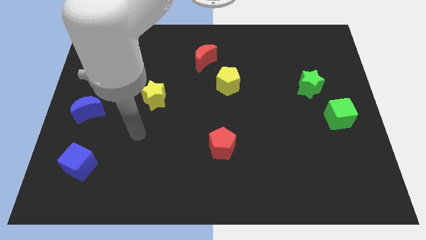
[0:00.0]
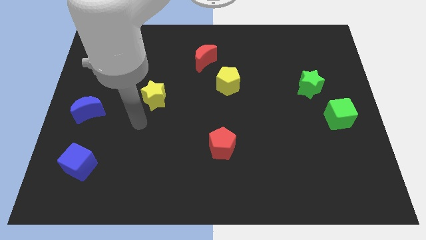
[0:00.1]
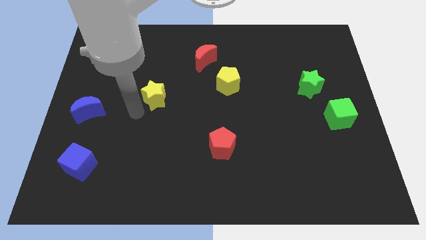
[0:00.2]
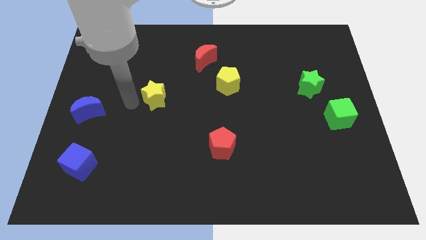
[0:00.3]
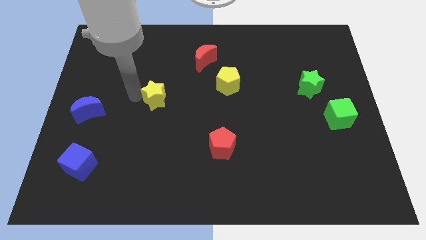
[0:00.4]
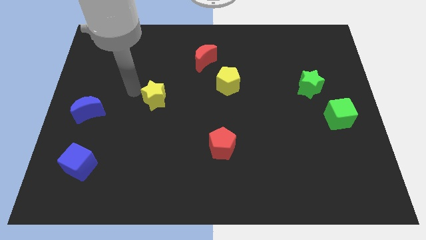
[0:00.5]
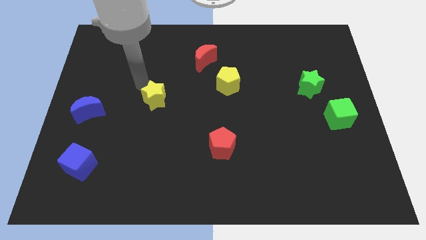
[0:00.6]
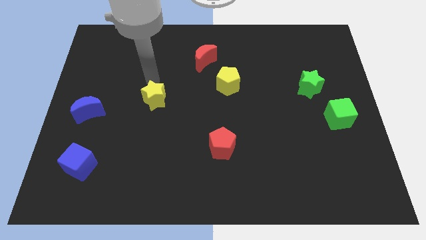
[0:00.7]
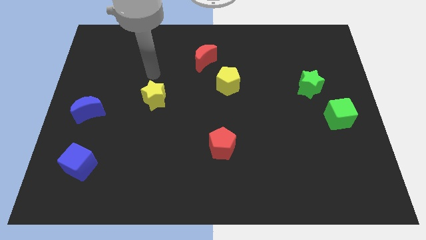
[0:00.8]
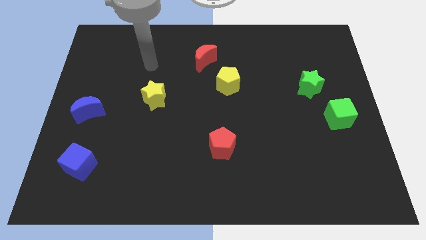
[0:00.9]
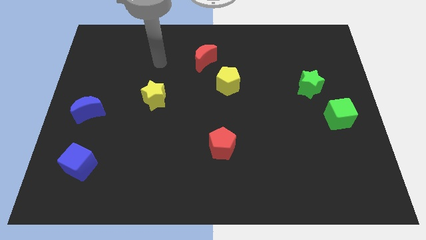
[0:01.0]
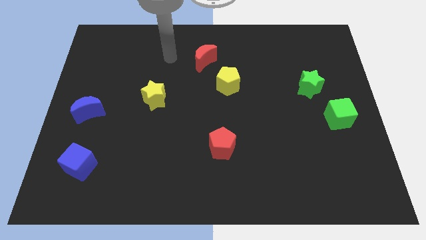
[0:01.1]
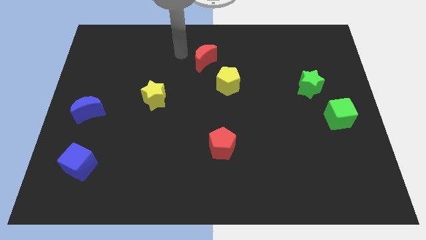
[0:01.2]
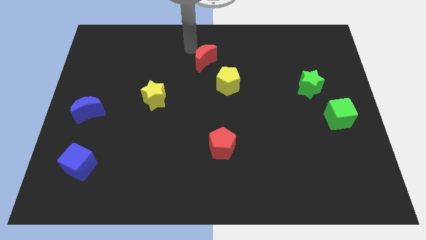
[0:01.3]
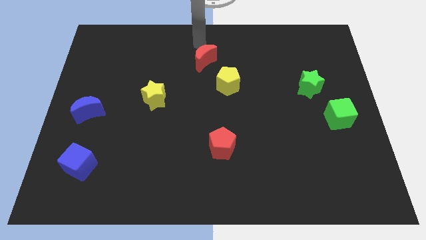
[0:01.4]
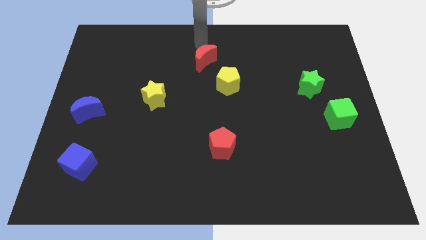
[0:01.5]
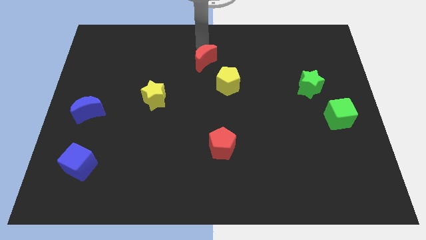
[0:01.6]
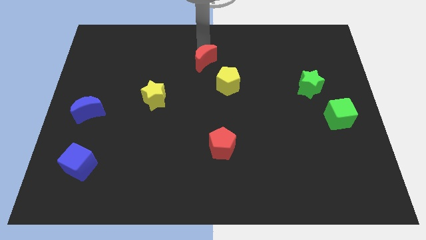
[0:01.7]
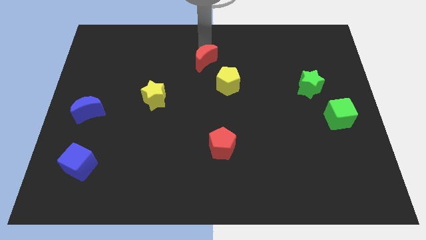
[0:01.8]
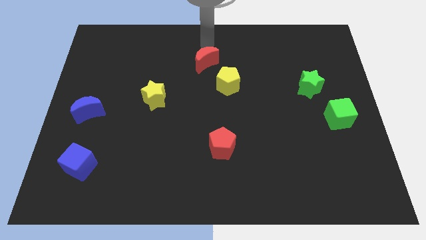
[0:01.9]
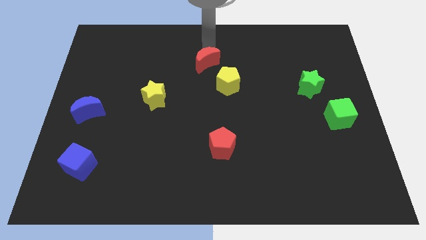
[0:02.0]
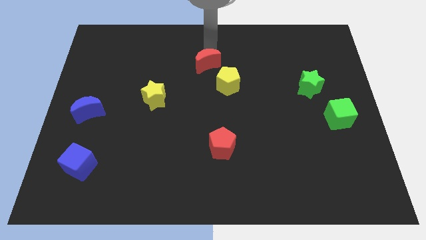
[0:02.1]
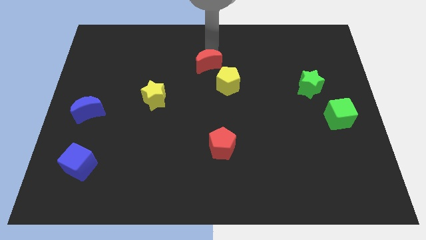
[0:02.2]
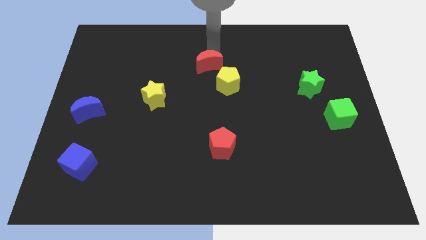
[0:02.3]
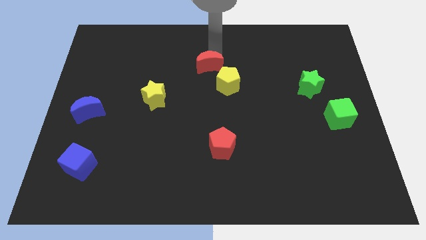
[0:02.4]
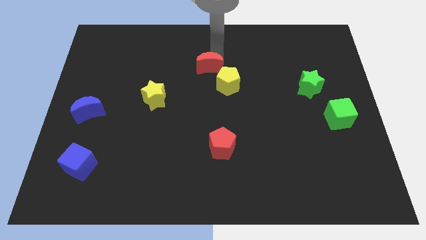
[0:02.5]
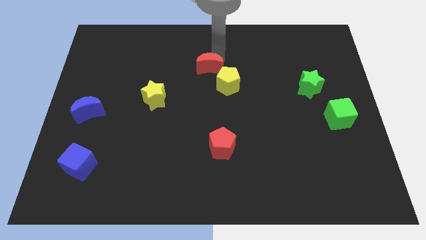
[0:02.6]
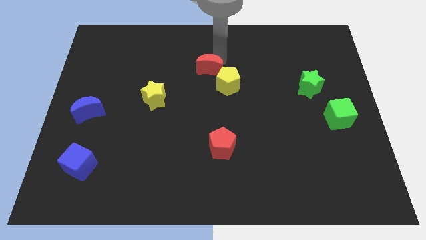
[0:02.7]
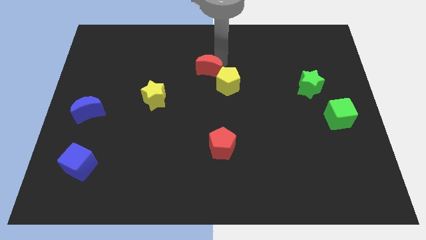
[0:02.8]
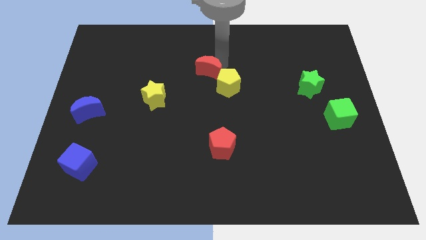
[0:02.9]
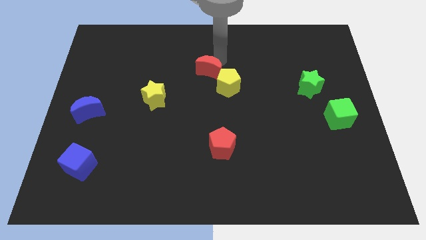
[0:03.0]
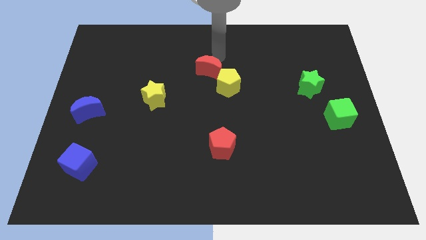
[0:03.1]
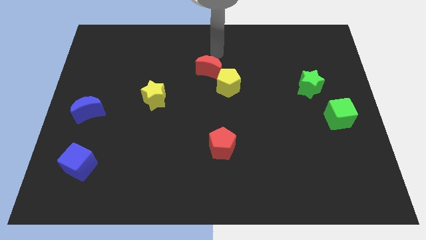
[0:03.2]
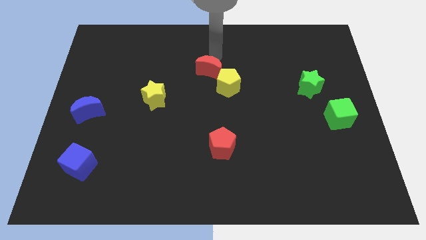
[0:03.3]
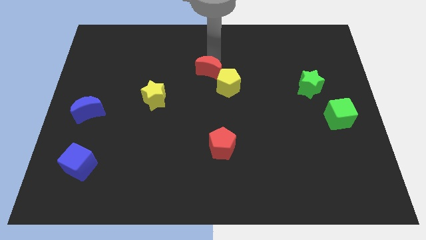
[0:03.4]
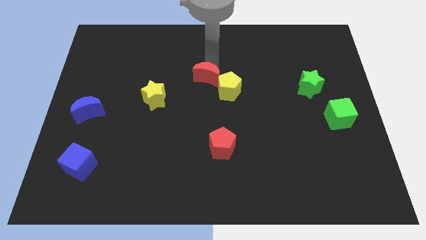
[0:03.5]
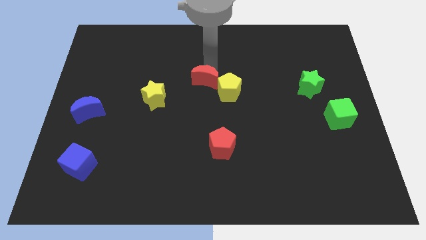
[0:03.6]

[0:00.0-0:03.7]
move the red moon a little down

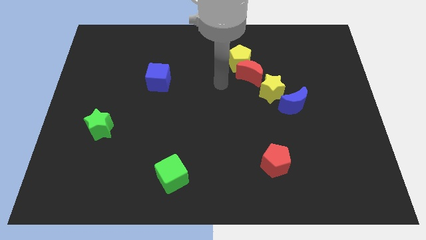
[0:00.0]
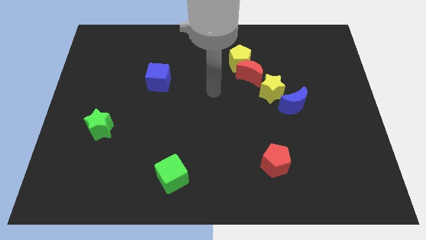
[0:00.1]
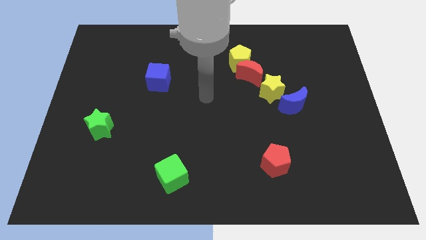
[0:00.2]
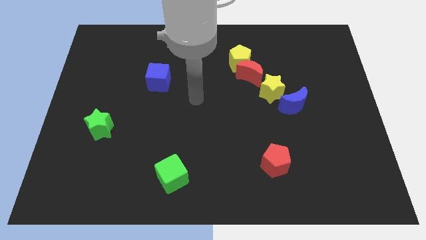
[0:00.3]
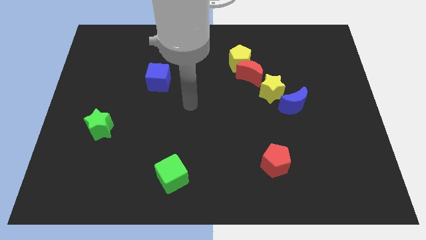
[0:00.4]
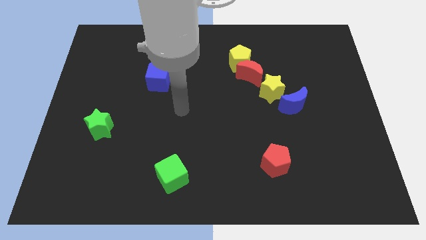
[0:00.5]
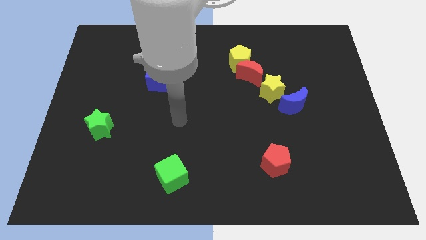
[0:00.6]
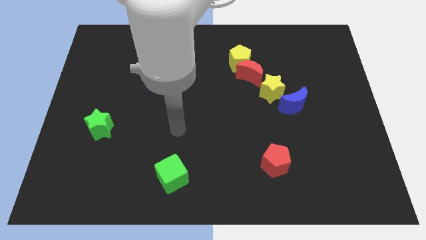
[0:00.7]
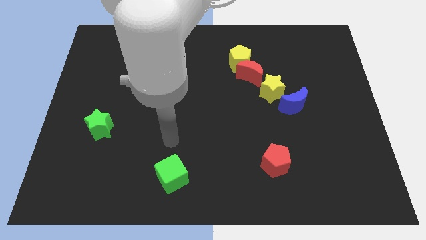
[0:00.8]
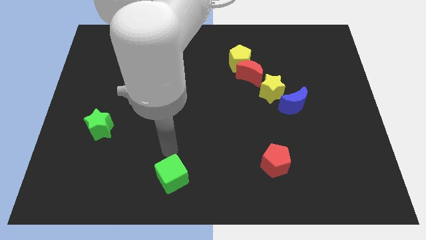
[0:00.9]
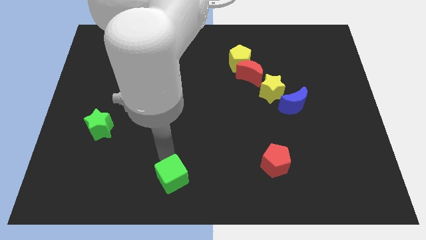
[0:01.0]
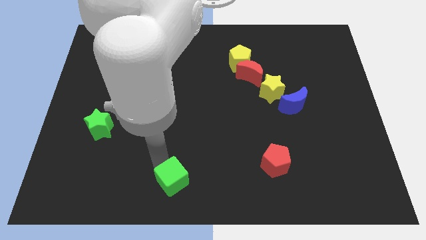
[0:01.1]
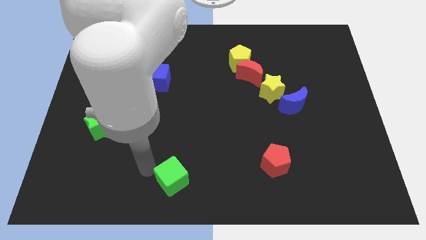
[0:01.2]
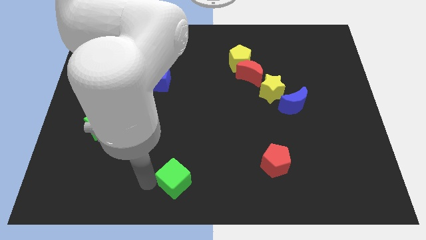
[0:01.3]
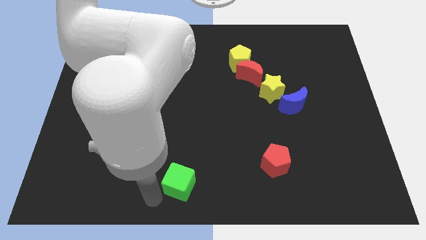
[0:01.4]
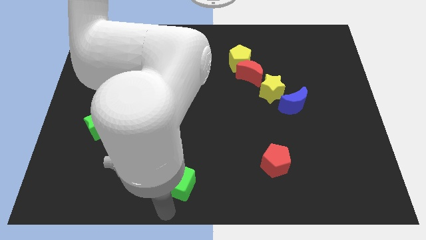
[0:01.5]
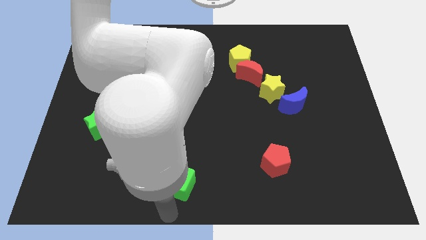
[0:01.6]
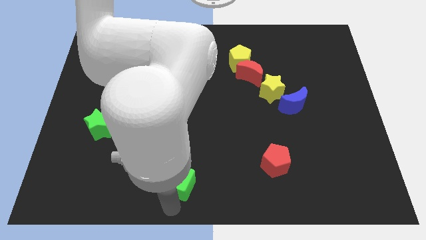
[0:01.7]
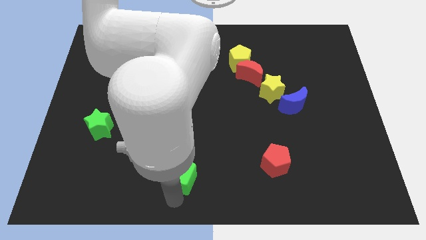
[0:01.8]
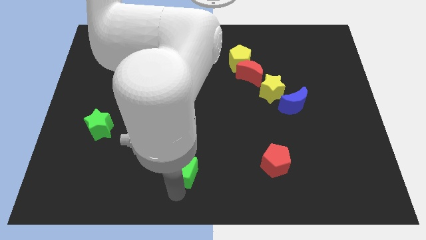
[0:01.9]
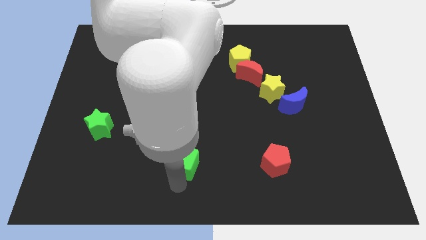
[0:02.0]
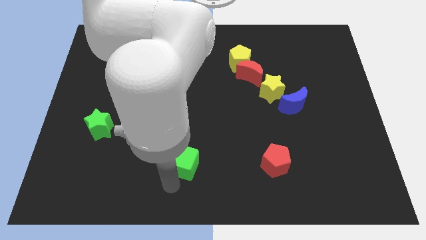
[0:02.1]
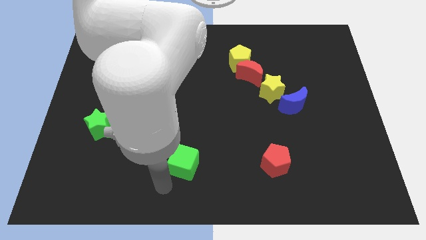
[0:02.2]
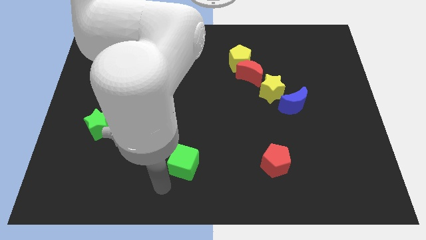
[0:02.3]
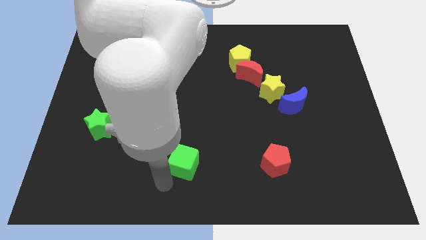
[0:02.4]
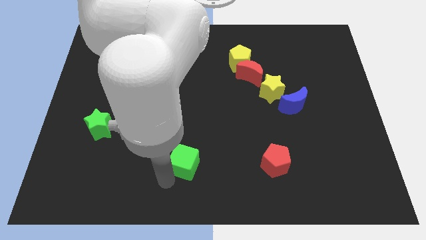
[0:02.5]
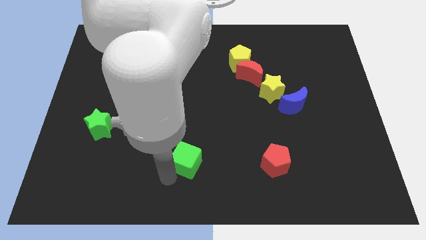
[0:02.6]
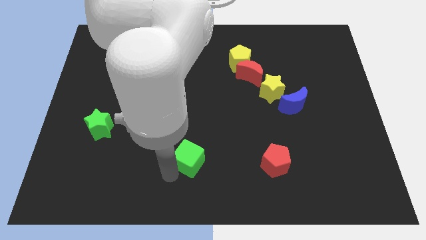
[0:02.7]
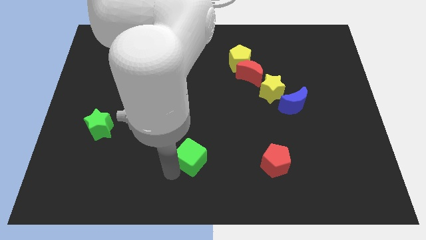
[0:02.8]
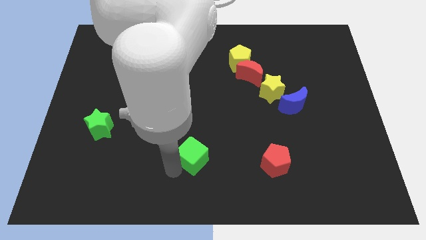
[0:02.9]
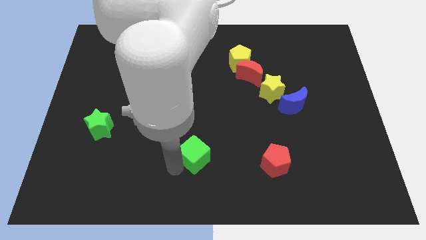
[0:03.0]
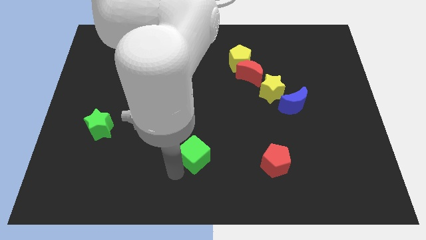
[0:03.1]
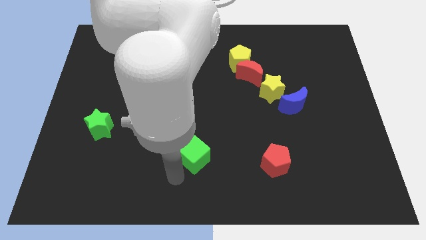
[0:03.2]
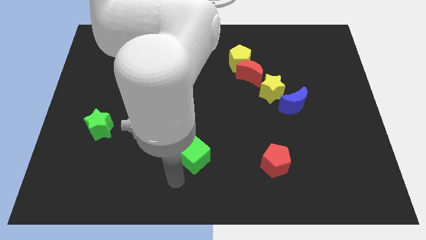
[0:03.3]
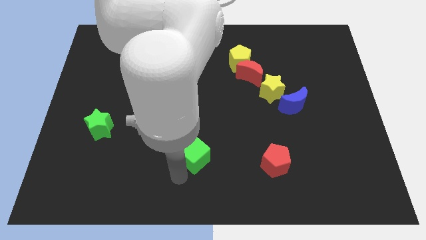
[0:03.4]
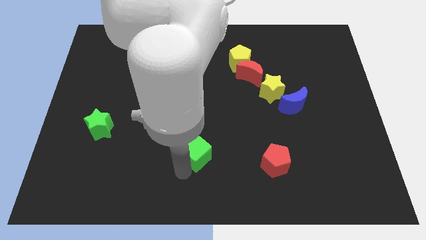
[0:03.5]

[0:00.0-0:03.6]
slightly push the green cube up and to the right

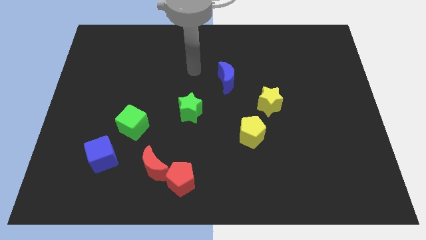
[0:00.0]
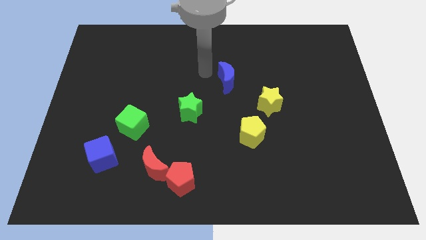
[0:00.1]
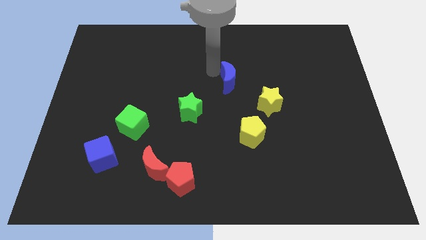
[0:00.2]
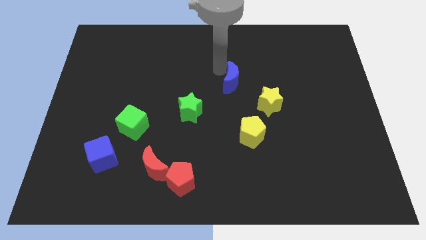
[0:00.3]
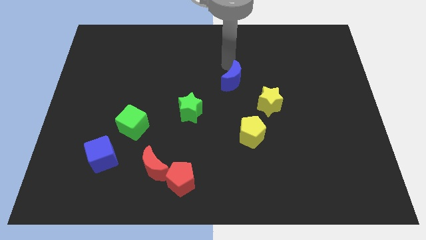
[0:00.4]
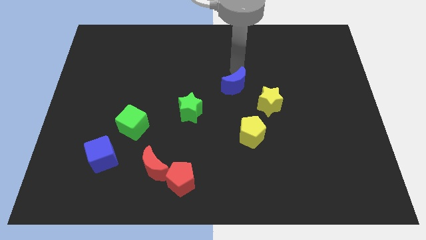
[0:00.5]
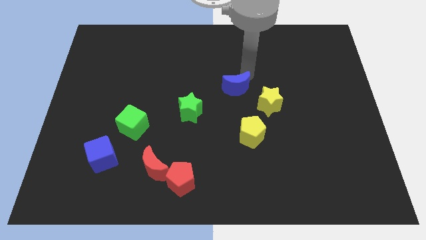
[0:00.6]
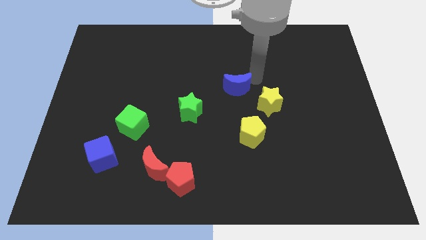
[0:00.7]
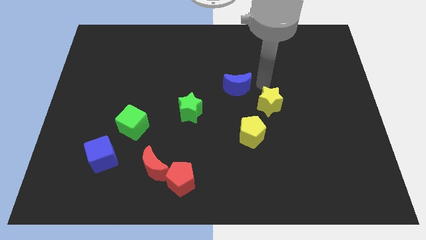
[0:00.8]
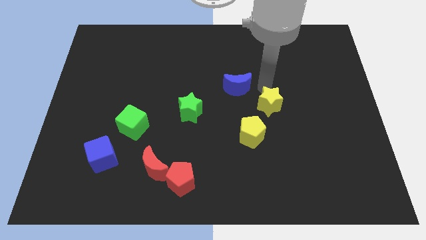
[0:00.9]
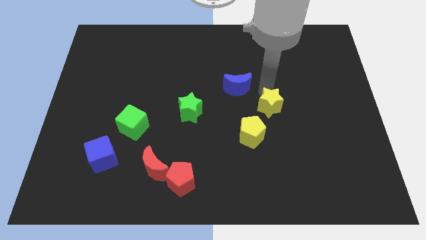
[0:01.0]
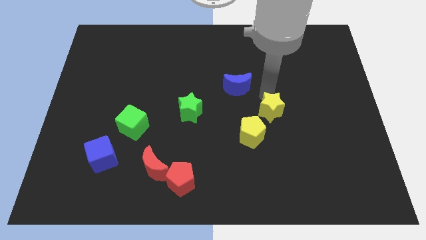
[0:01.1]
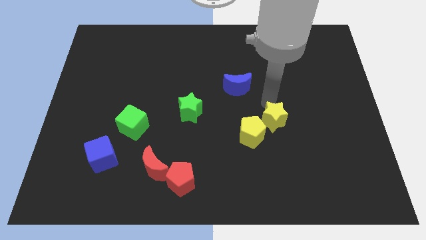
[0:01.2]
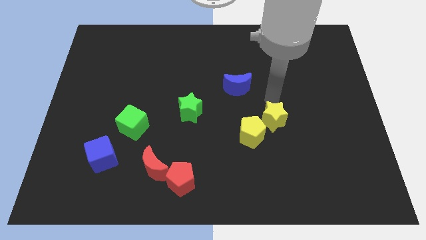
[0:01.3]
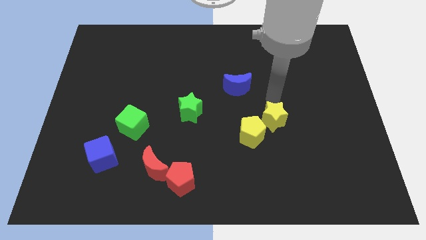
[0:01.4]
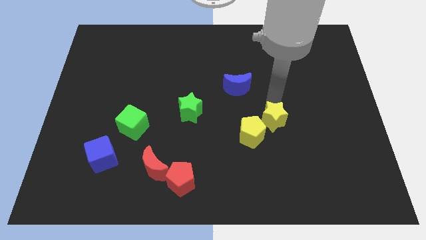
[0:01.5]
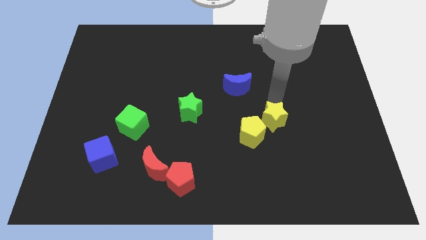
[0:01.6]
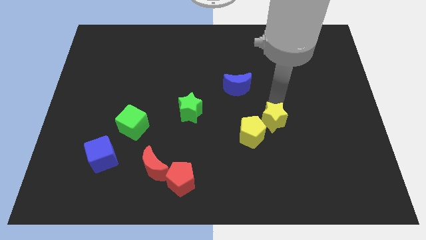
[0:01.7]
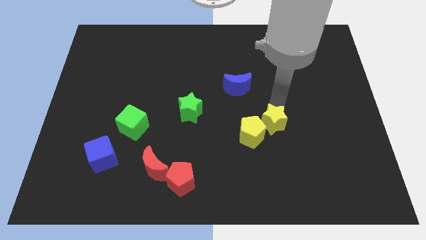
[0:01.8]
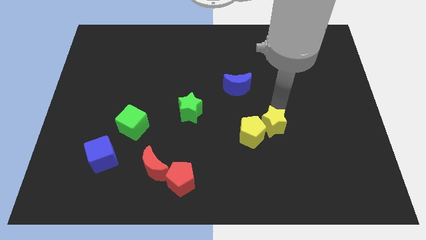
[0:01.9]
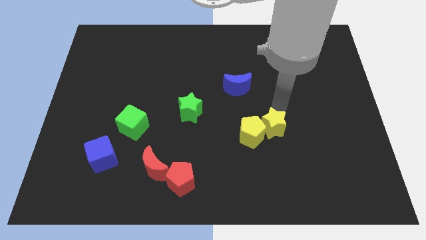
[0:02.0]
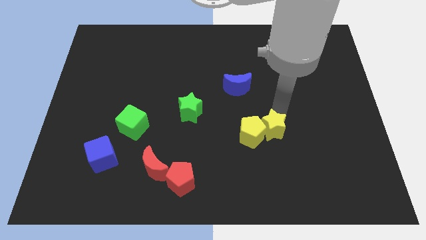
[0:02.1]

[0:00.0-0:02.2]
slightly push the yellow star downwards
